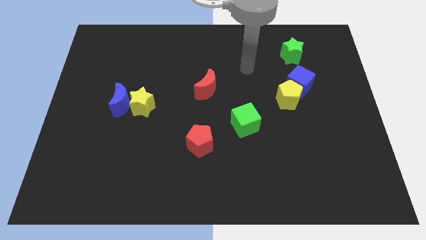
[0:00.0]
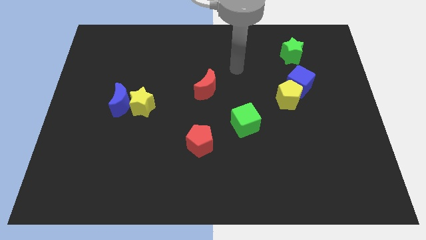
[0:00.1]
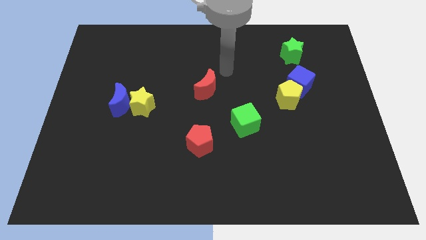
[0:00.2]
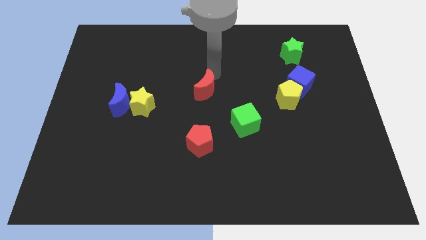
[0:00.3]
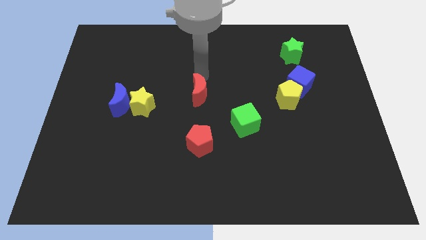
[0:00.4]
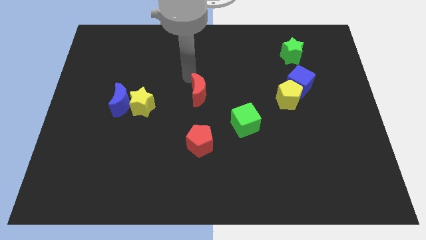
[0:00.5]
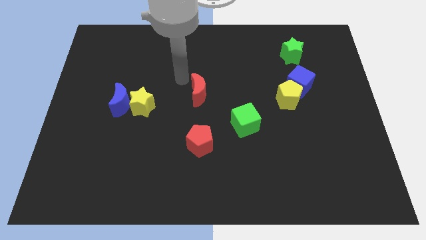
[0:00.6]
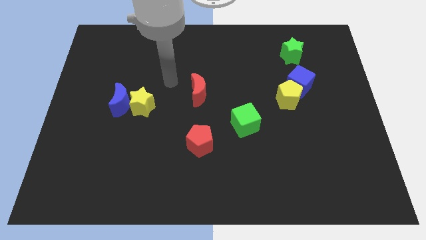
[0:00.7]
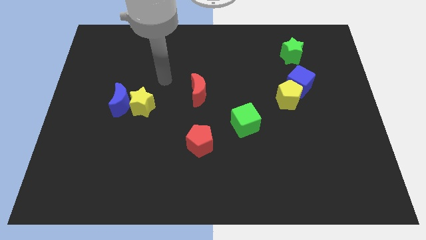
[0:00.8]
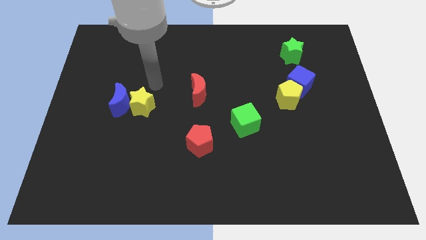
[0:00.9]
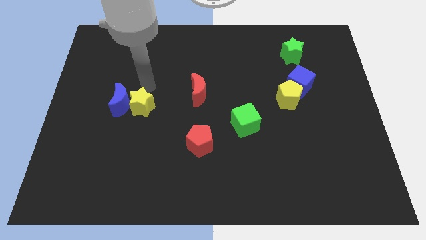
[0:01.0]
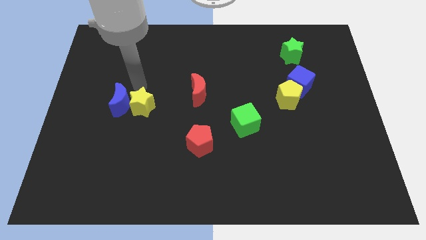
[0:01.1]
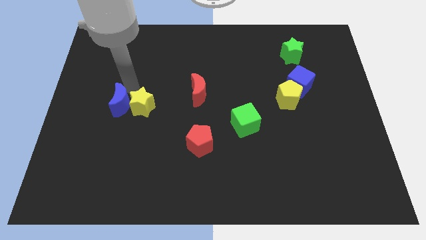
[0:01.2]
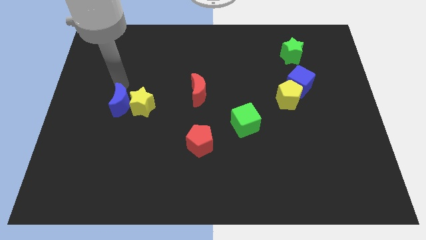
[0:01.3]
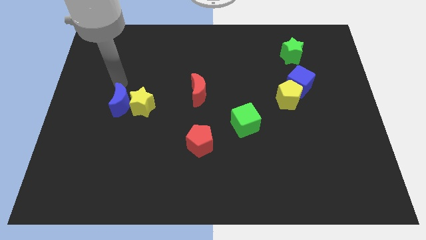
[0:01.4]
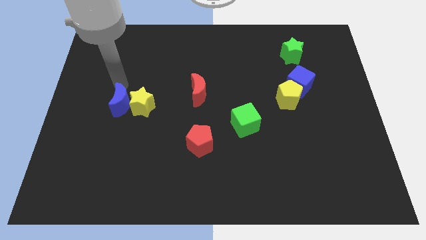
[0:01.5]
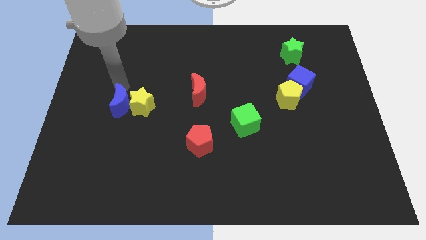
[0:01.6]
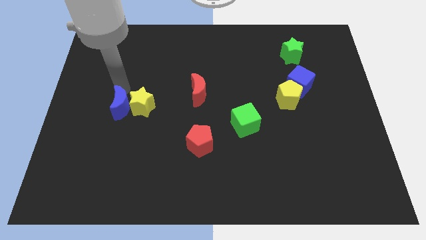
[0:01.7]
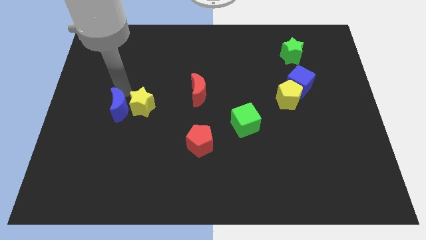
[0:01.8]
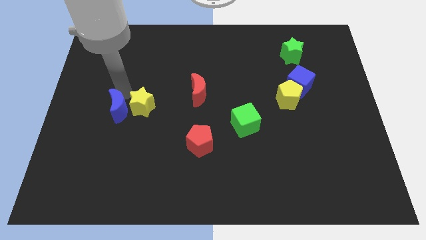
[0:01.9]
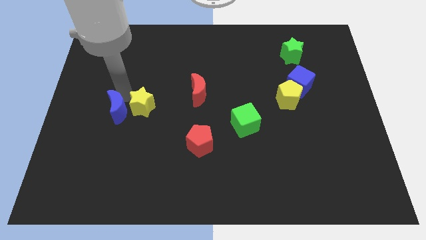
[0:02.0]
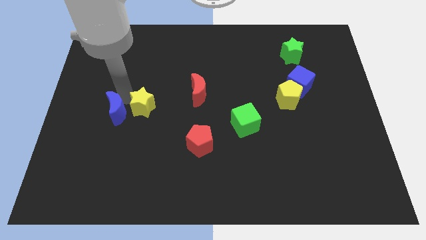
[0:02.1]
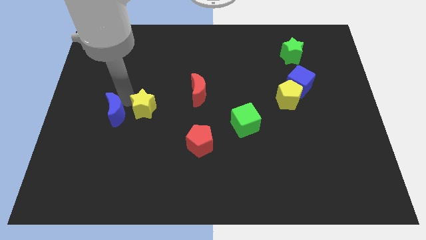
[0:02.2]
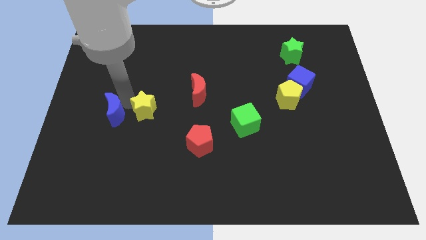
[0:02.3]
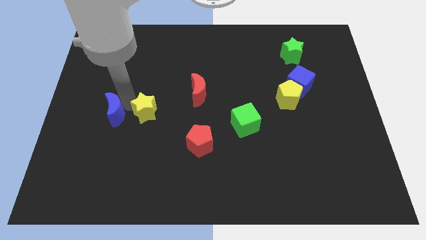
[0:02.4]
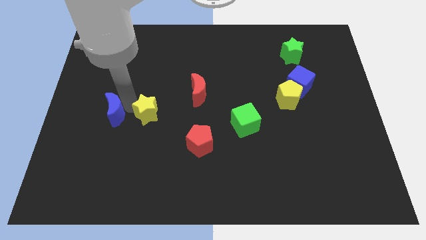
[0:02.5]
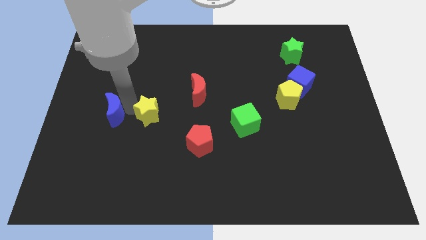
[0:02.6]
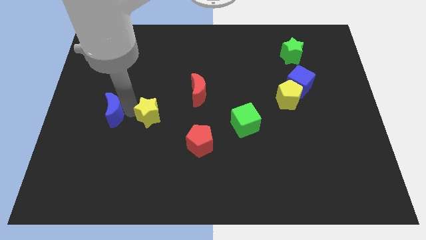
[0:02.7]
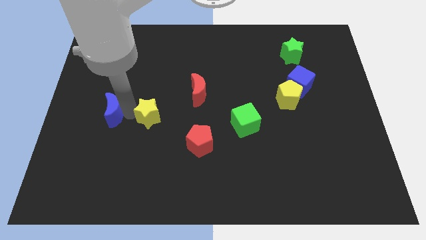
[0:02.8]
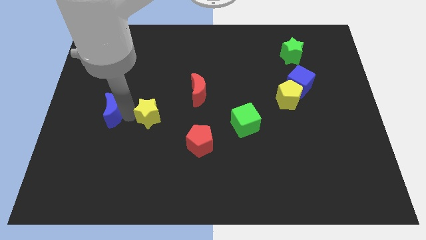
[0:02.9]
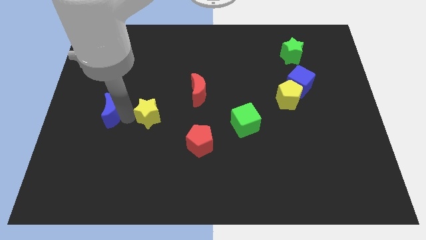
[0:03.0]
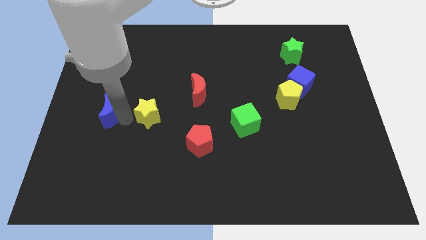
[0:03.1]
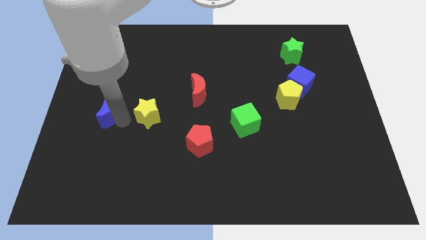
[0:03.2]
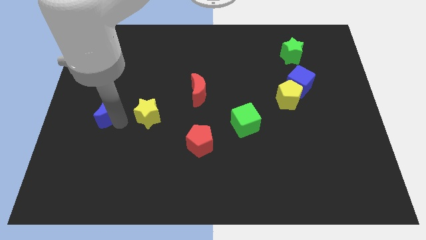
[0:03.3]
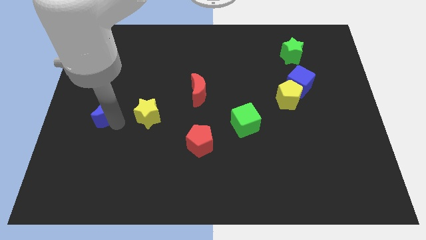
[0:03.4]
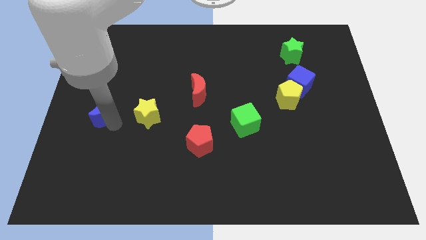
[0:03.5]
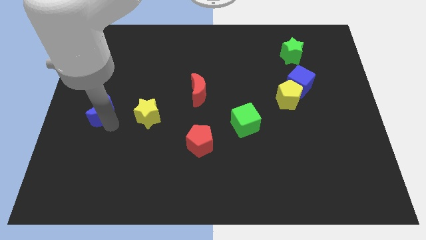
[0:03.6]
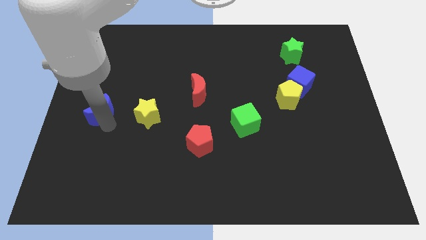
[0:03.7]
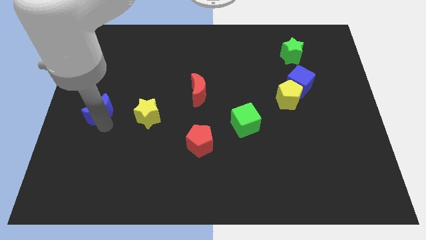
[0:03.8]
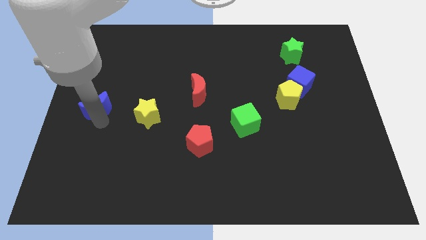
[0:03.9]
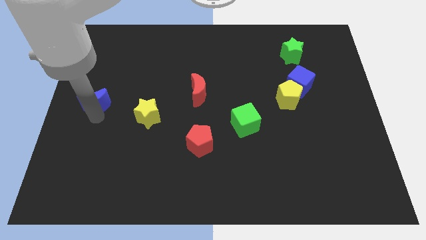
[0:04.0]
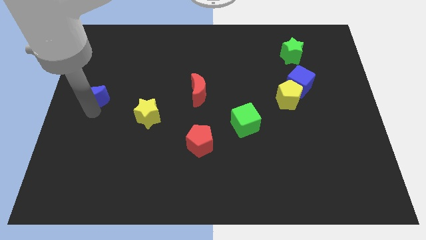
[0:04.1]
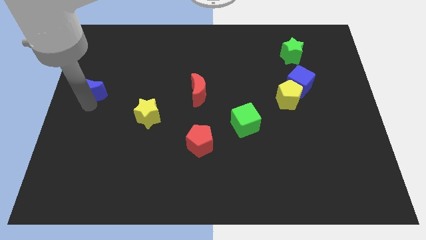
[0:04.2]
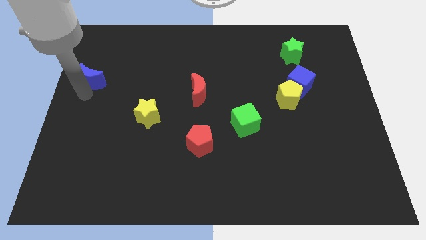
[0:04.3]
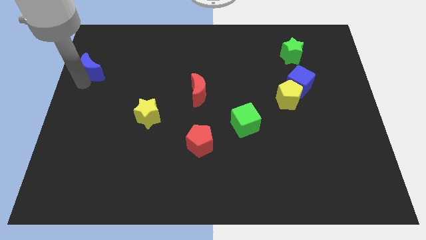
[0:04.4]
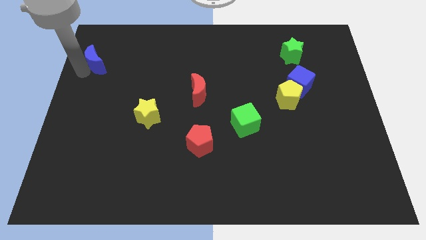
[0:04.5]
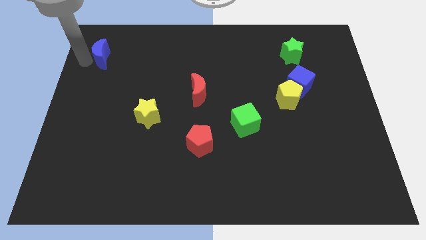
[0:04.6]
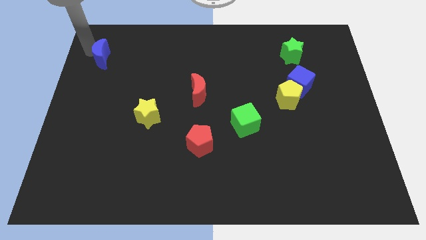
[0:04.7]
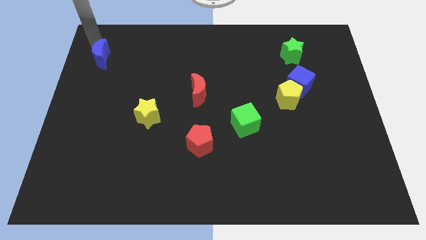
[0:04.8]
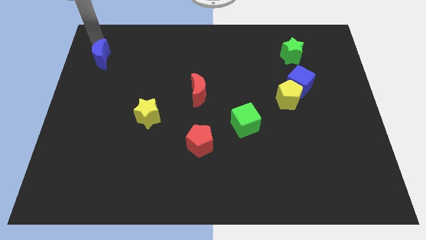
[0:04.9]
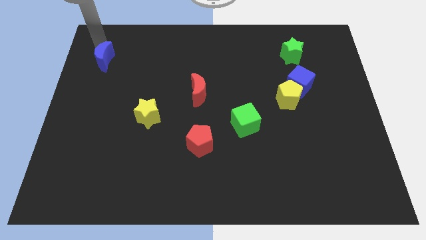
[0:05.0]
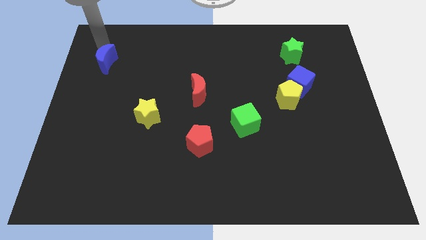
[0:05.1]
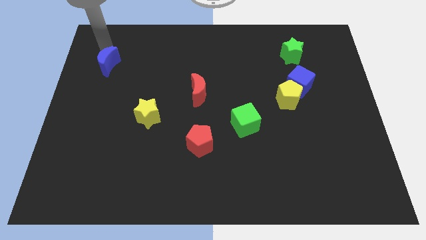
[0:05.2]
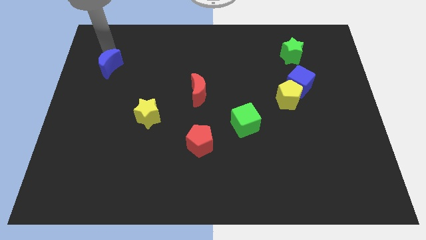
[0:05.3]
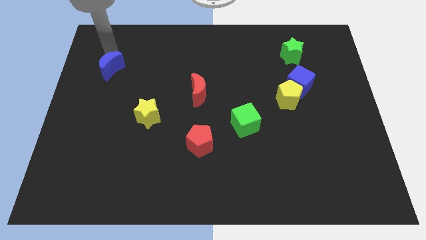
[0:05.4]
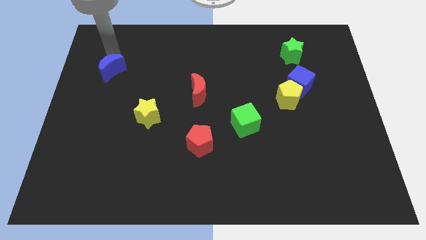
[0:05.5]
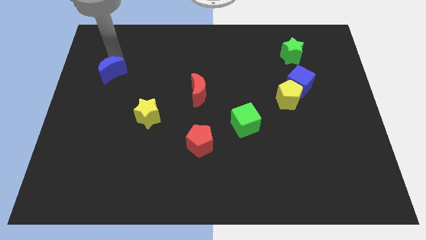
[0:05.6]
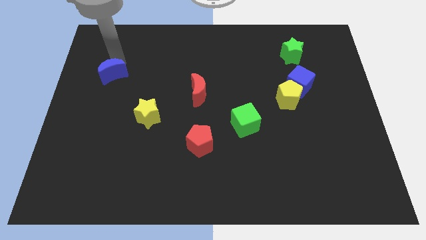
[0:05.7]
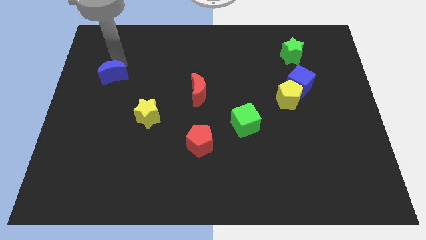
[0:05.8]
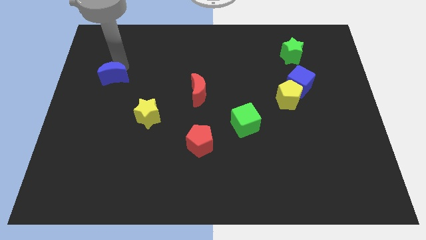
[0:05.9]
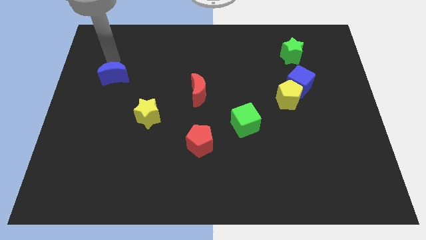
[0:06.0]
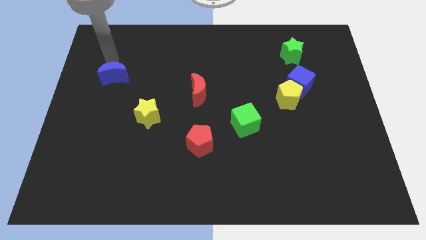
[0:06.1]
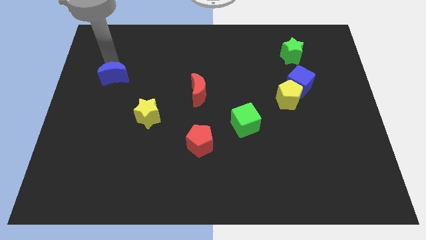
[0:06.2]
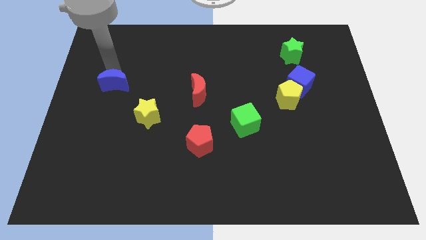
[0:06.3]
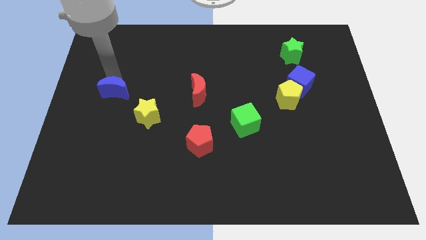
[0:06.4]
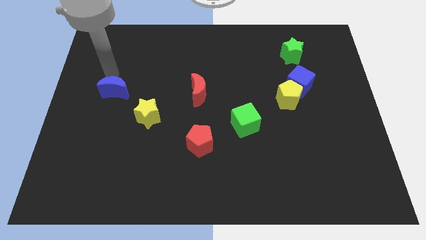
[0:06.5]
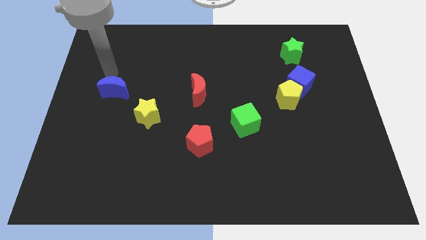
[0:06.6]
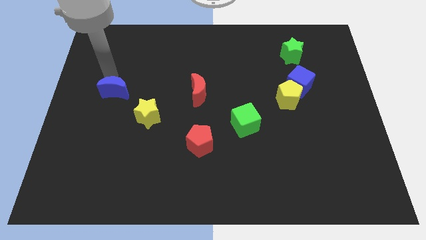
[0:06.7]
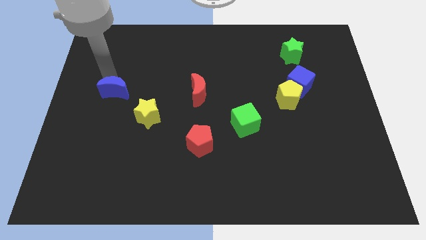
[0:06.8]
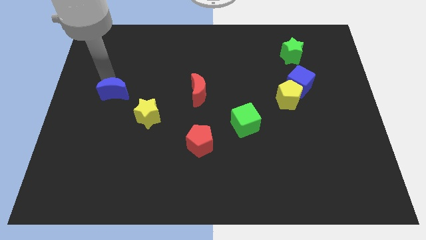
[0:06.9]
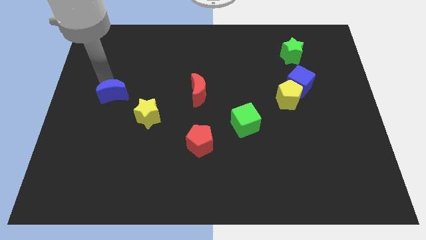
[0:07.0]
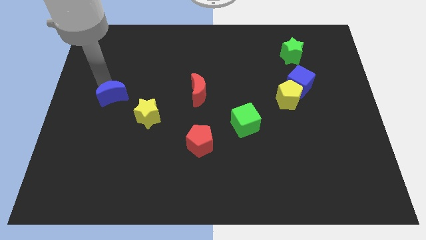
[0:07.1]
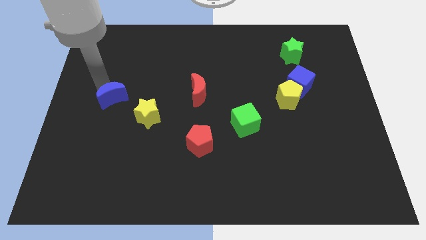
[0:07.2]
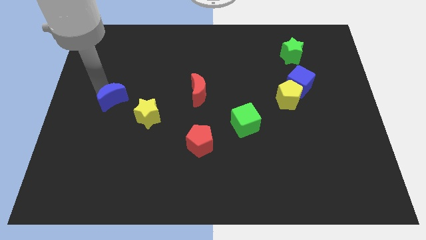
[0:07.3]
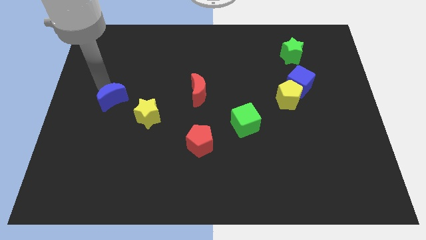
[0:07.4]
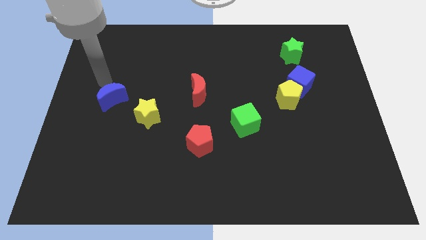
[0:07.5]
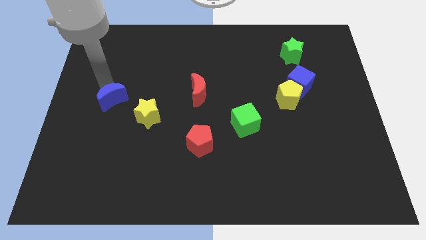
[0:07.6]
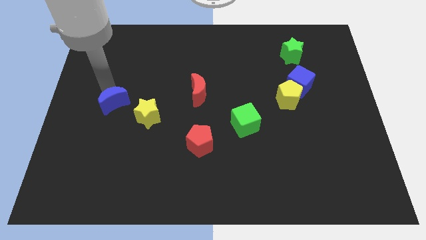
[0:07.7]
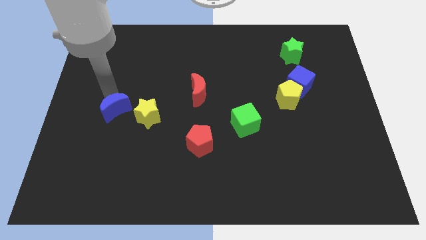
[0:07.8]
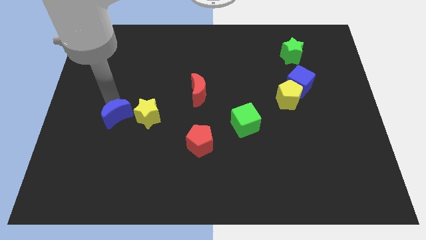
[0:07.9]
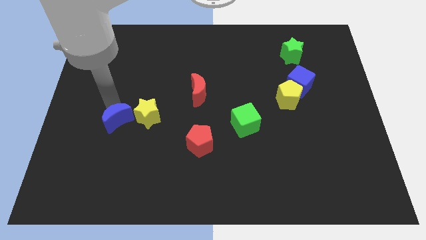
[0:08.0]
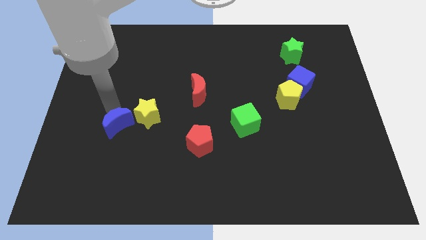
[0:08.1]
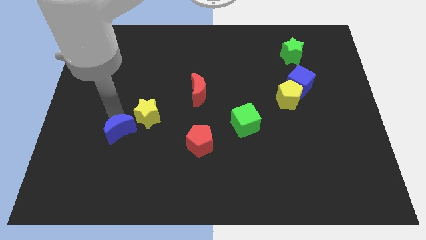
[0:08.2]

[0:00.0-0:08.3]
slightly move the blue moon down
